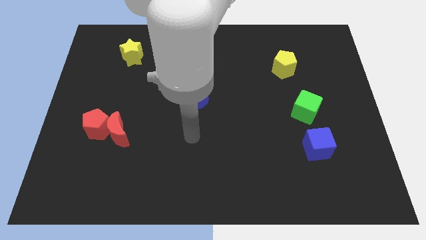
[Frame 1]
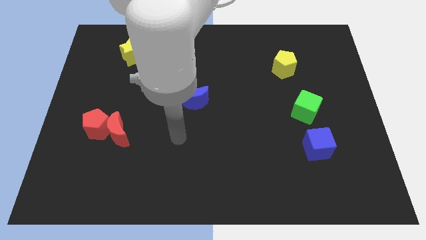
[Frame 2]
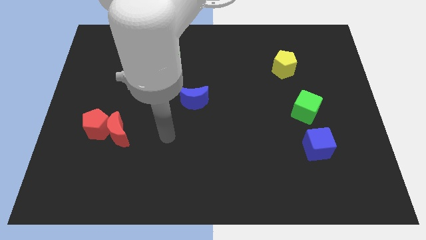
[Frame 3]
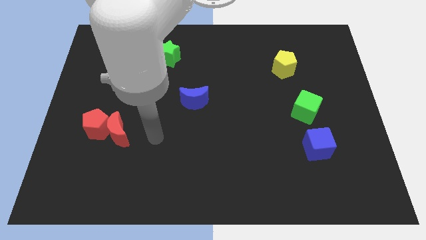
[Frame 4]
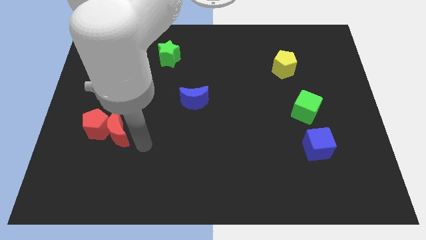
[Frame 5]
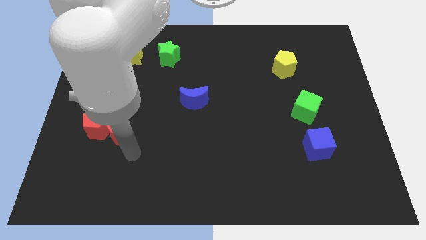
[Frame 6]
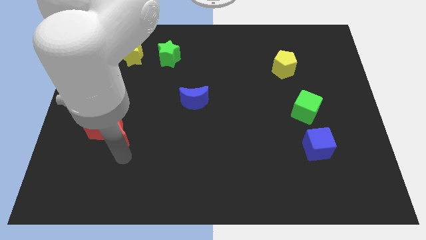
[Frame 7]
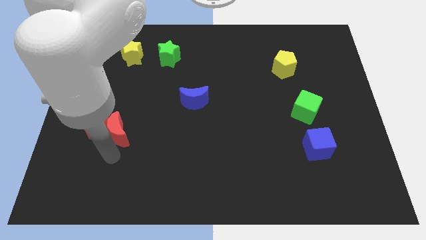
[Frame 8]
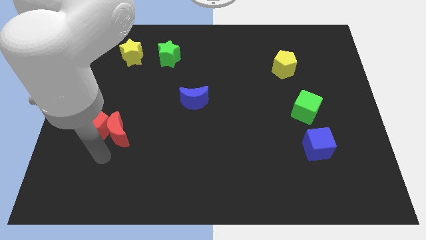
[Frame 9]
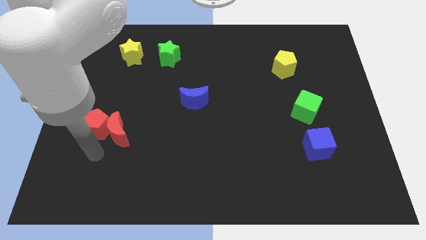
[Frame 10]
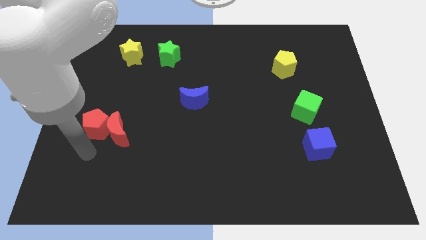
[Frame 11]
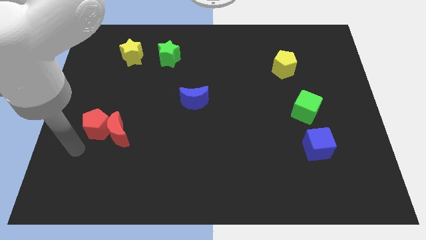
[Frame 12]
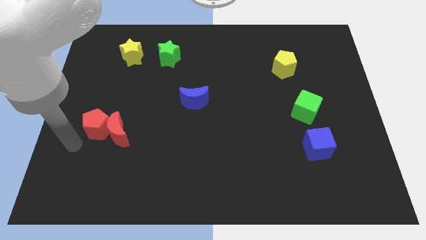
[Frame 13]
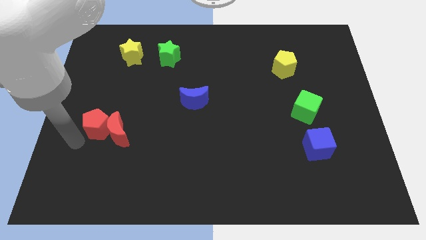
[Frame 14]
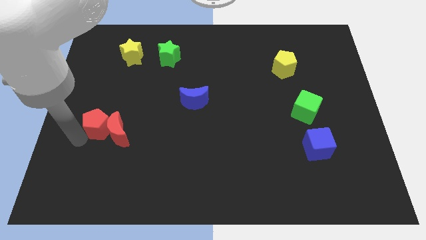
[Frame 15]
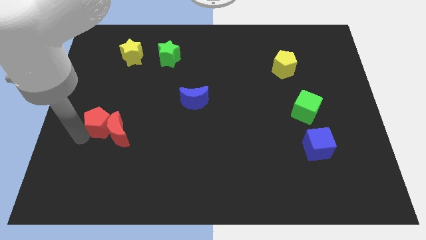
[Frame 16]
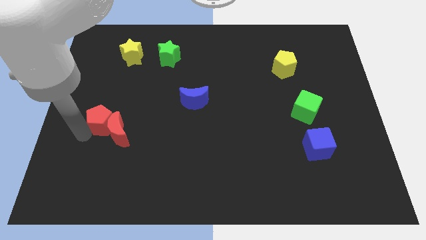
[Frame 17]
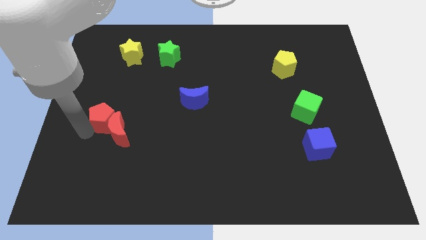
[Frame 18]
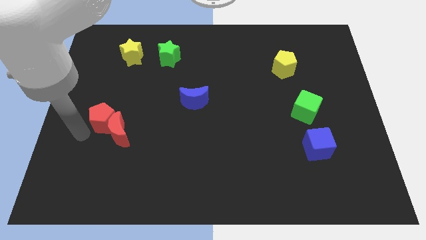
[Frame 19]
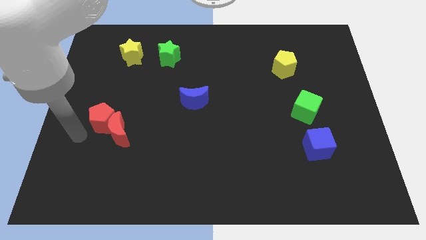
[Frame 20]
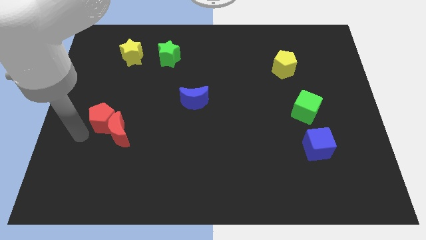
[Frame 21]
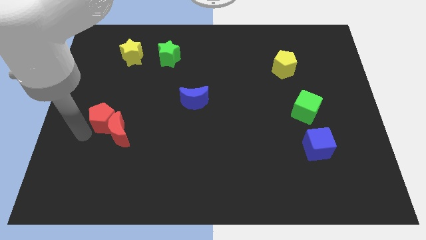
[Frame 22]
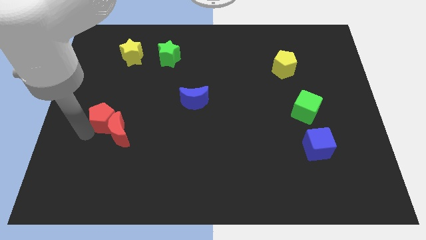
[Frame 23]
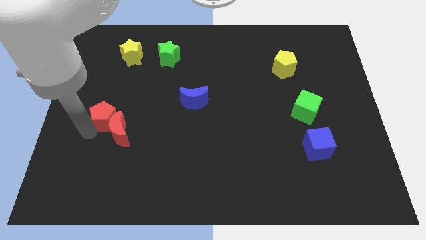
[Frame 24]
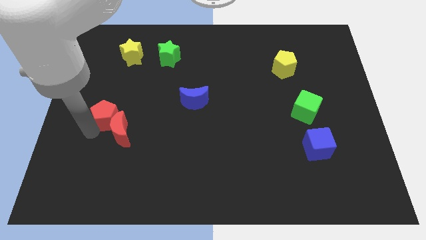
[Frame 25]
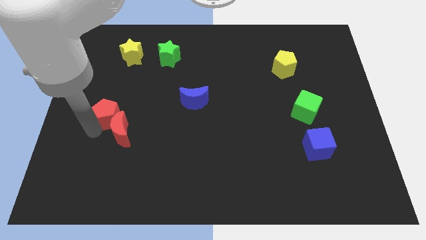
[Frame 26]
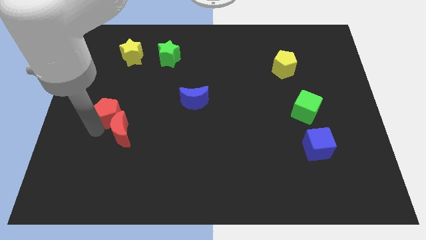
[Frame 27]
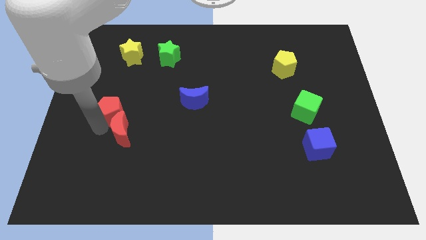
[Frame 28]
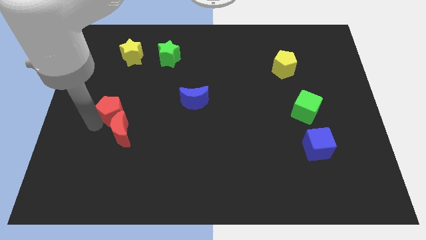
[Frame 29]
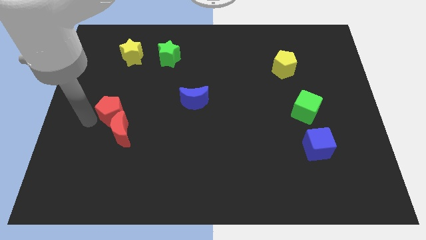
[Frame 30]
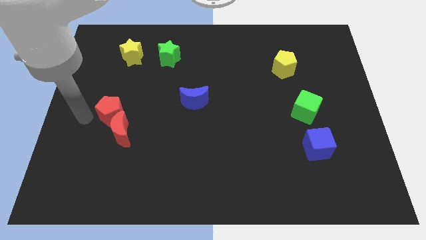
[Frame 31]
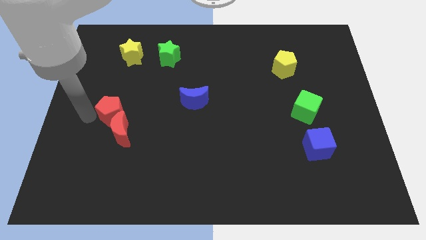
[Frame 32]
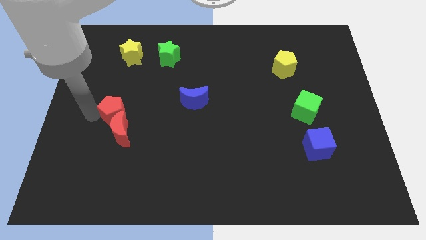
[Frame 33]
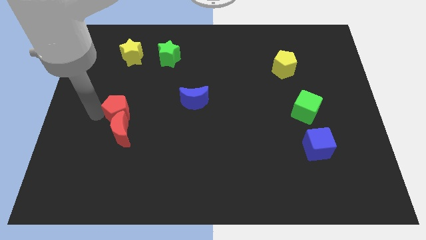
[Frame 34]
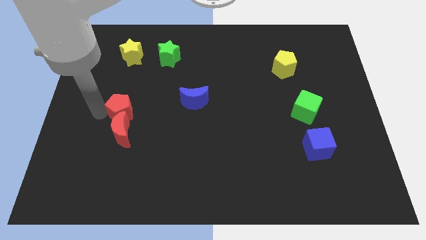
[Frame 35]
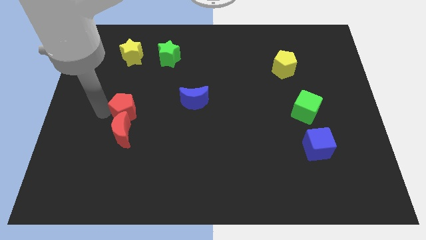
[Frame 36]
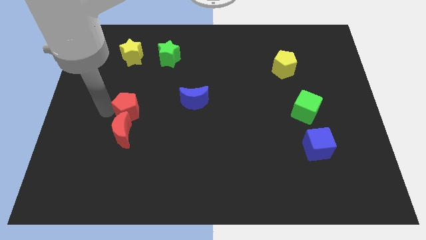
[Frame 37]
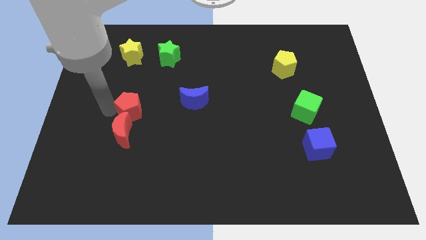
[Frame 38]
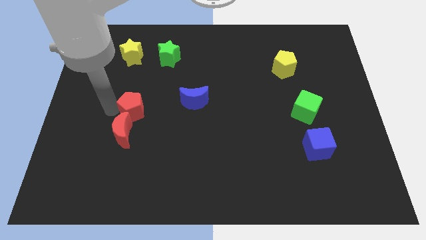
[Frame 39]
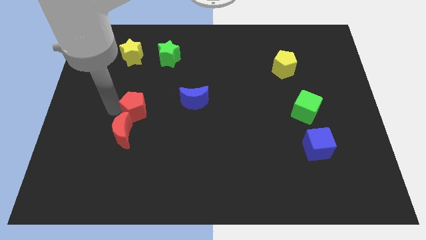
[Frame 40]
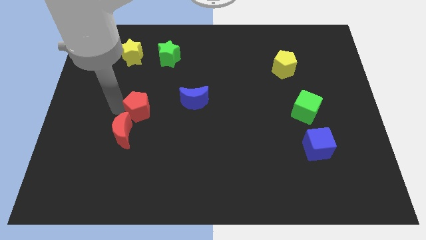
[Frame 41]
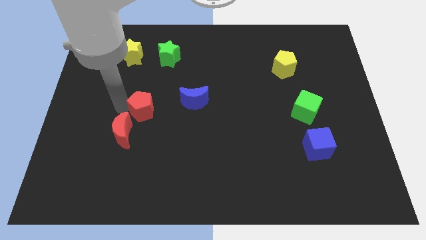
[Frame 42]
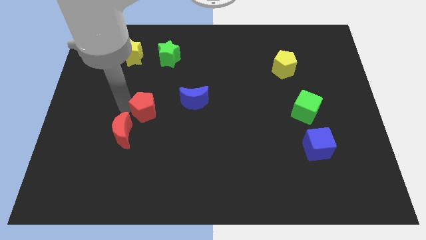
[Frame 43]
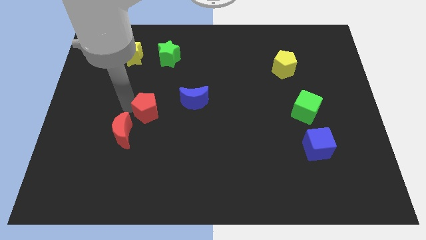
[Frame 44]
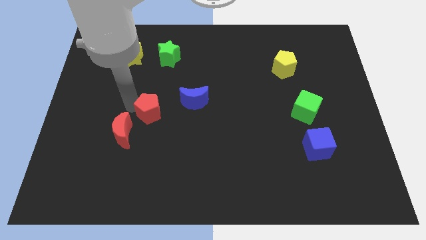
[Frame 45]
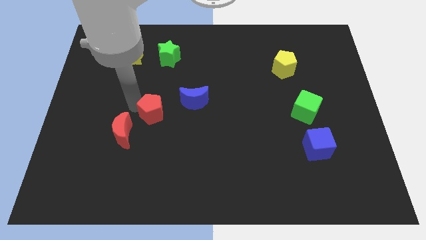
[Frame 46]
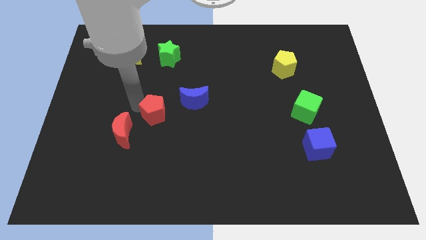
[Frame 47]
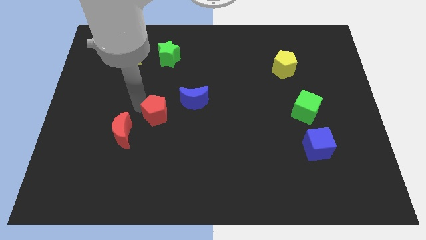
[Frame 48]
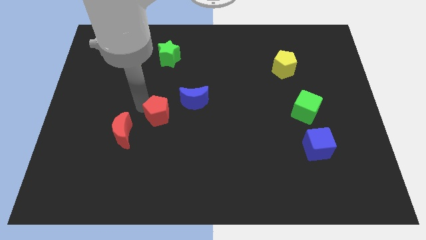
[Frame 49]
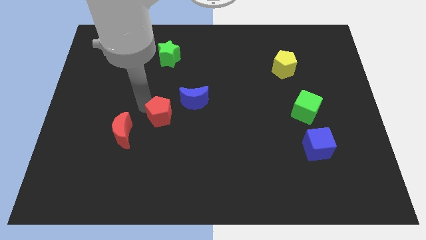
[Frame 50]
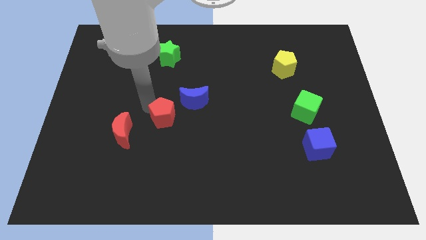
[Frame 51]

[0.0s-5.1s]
push the red pentagon to the middle of the board

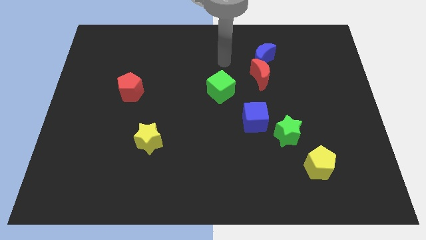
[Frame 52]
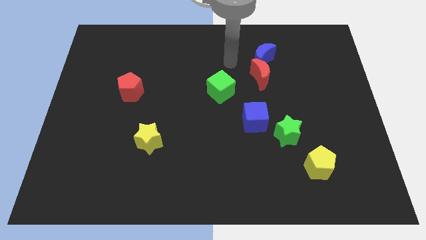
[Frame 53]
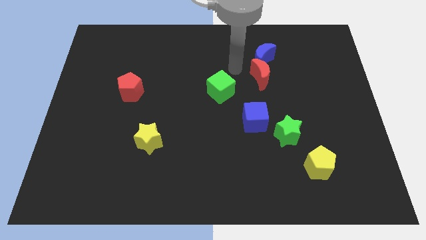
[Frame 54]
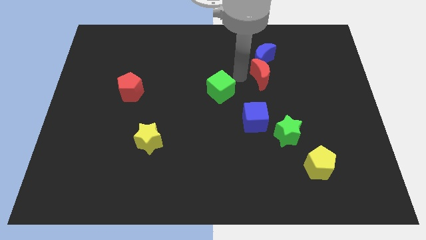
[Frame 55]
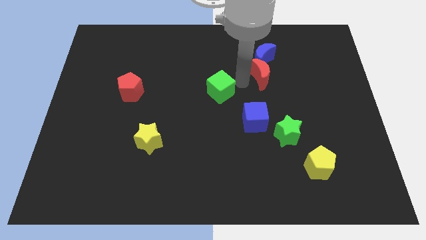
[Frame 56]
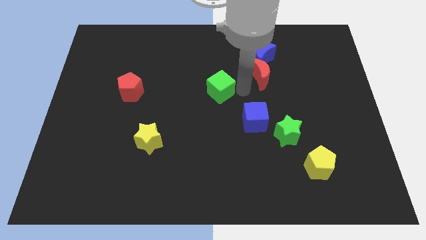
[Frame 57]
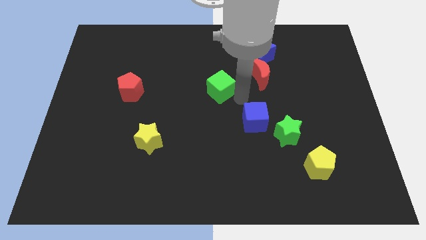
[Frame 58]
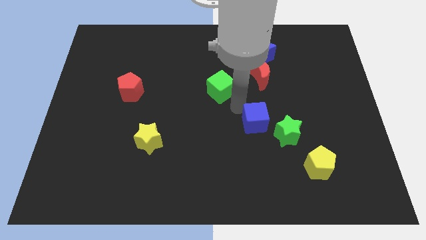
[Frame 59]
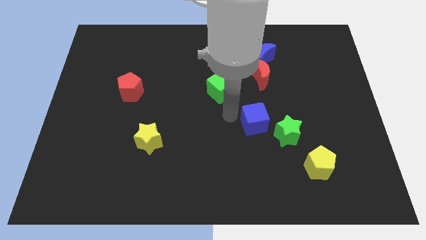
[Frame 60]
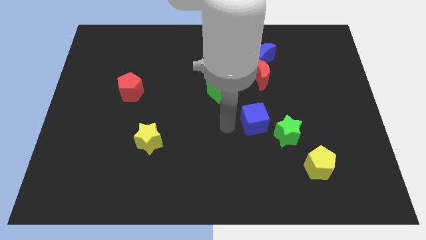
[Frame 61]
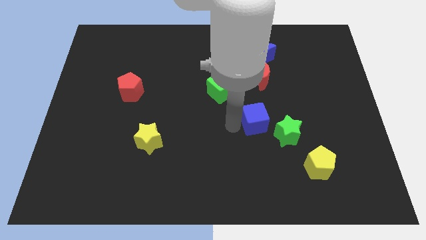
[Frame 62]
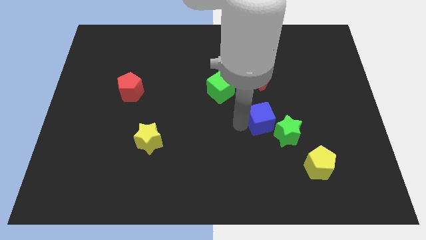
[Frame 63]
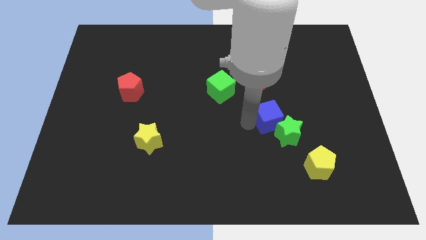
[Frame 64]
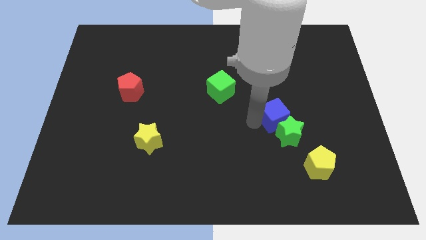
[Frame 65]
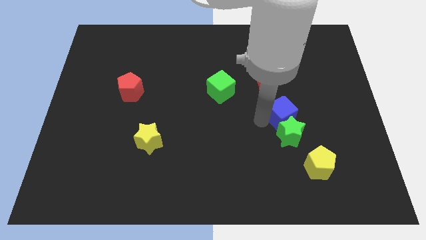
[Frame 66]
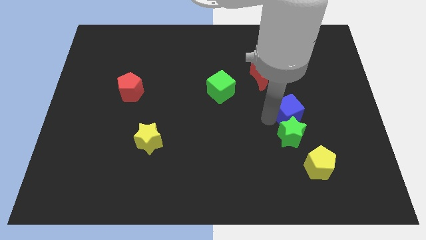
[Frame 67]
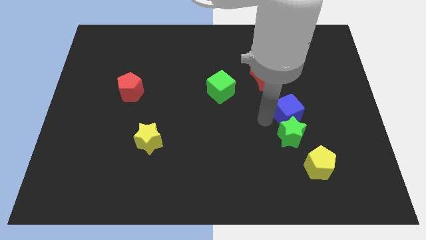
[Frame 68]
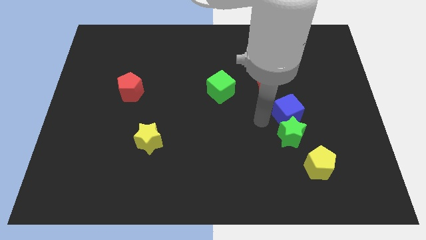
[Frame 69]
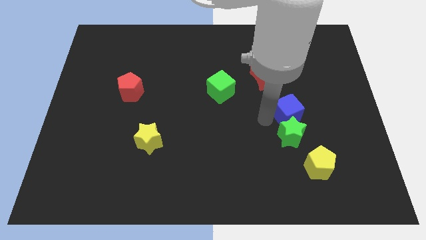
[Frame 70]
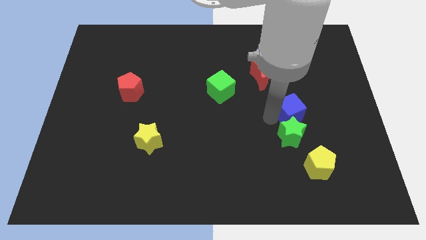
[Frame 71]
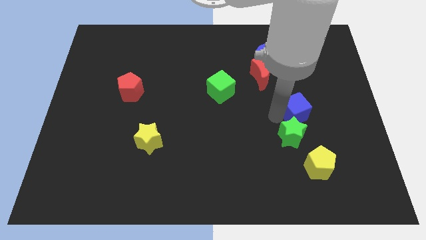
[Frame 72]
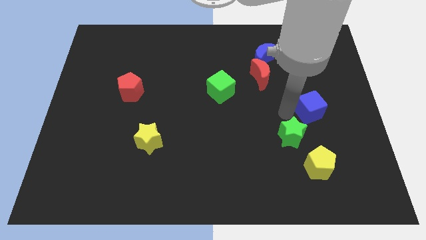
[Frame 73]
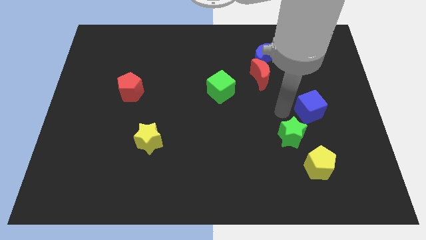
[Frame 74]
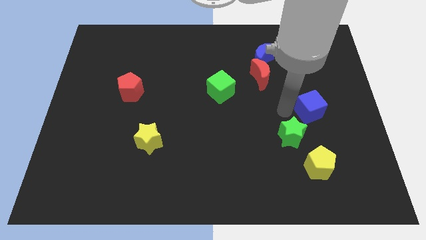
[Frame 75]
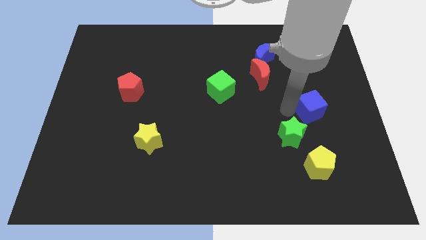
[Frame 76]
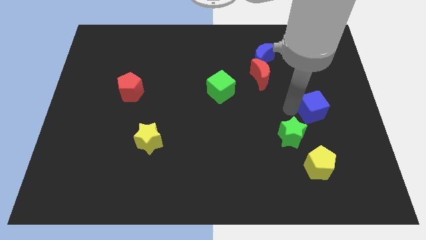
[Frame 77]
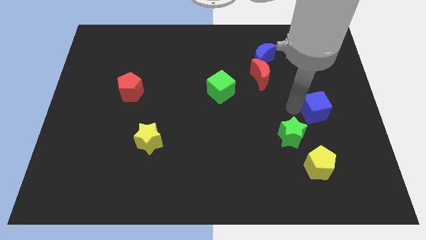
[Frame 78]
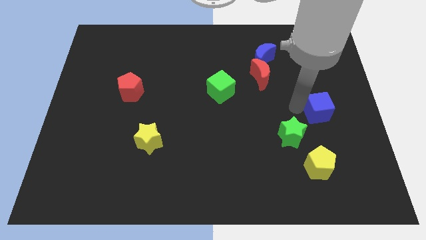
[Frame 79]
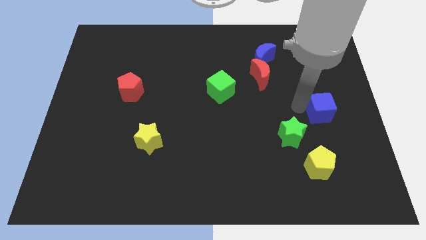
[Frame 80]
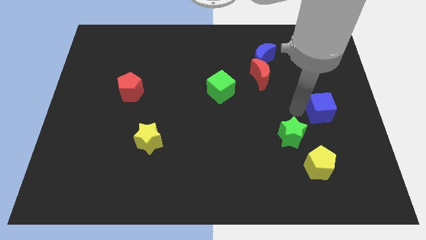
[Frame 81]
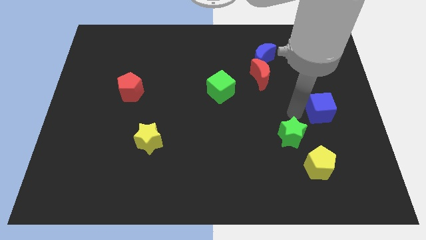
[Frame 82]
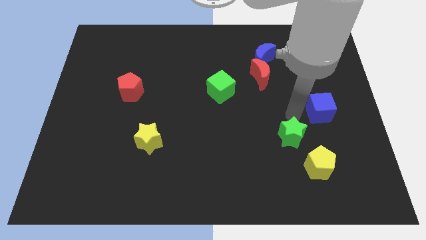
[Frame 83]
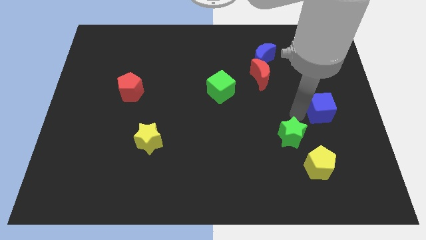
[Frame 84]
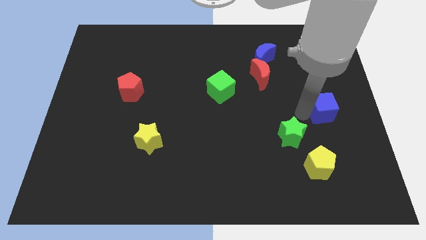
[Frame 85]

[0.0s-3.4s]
push the blue cube to the right side
